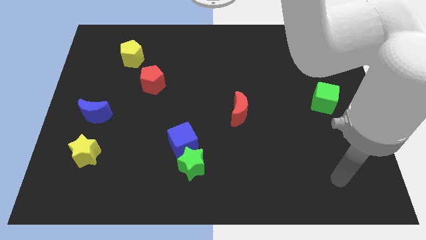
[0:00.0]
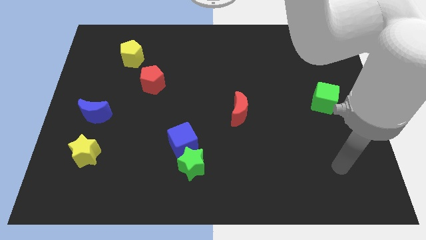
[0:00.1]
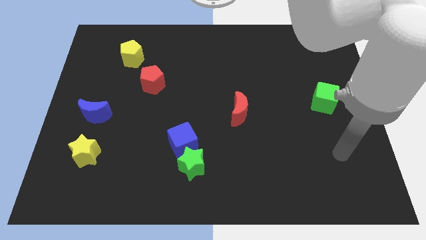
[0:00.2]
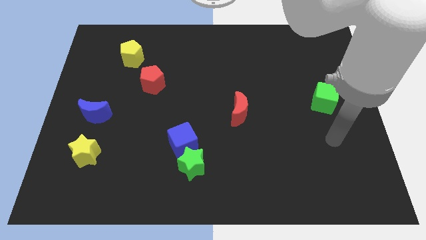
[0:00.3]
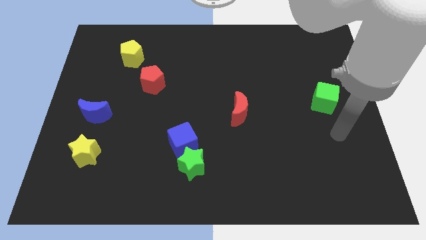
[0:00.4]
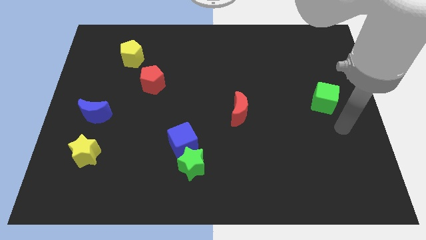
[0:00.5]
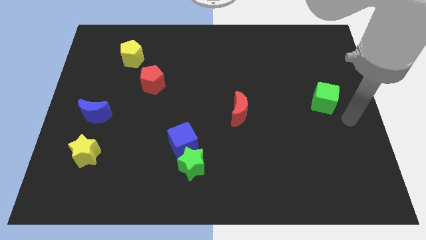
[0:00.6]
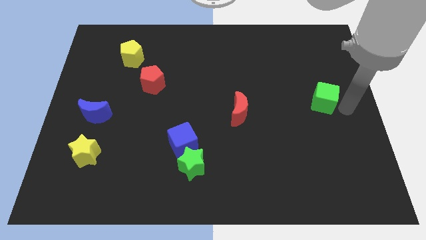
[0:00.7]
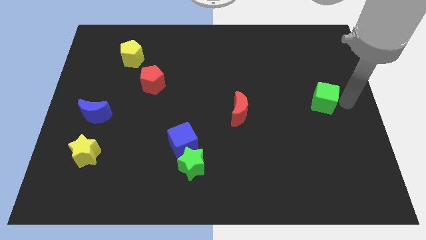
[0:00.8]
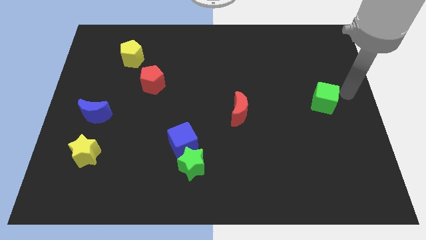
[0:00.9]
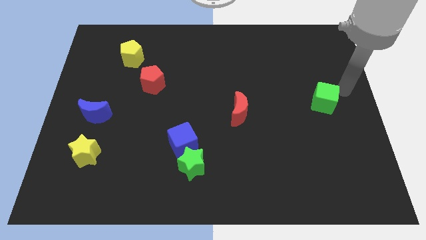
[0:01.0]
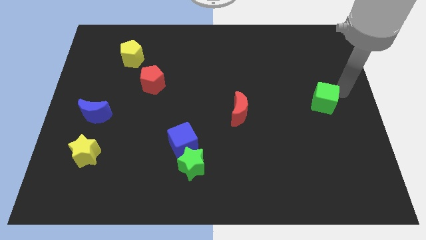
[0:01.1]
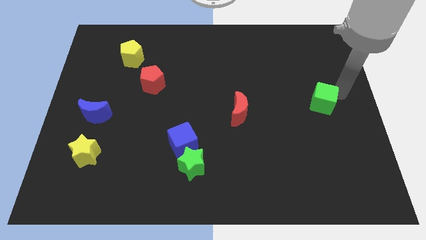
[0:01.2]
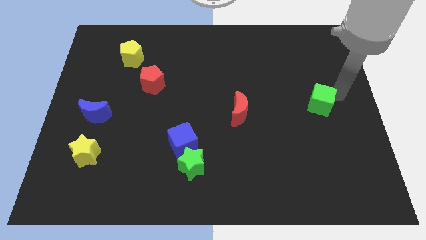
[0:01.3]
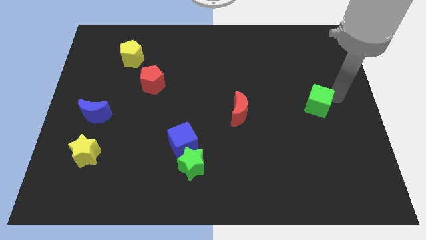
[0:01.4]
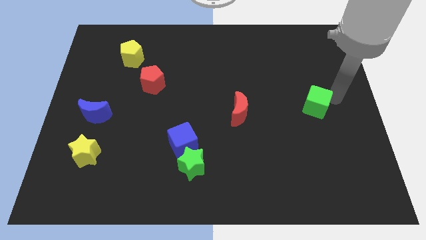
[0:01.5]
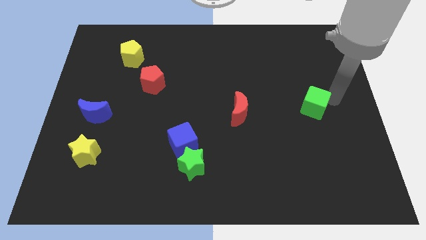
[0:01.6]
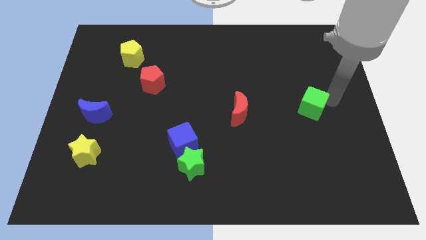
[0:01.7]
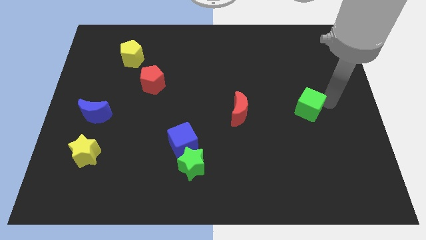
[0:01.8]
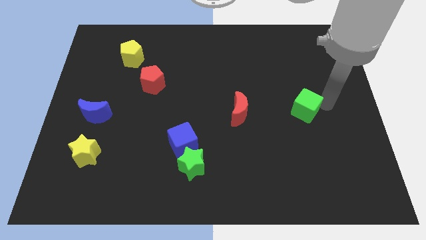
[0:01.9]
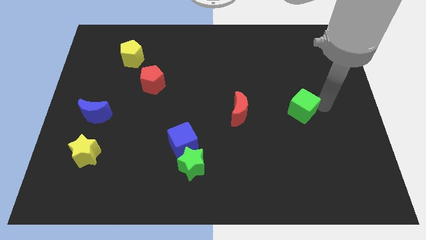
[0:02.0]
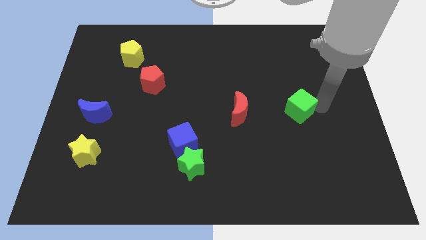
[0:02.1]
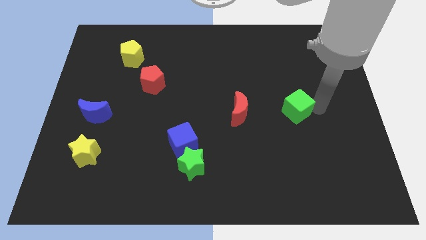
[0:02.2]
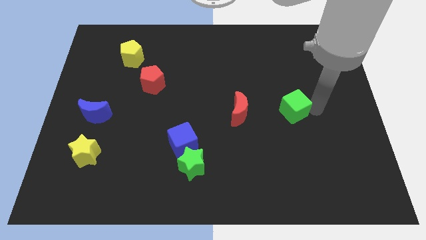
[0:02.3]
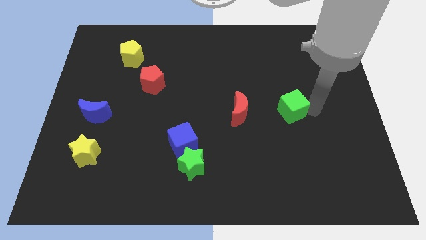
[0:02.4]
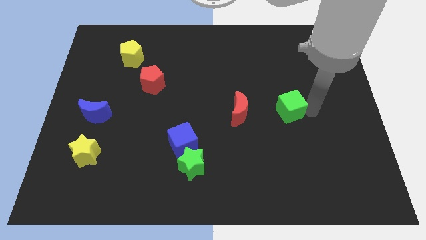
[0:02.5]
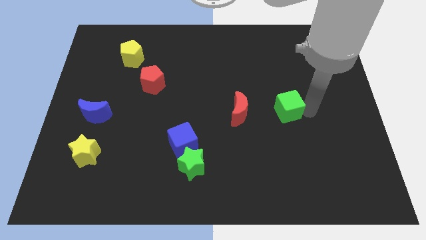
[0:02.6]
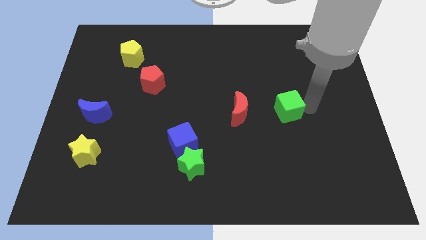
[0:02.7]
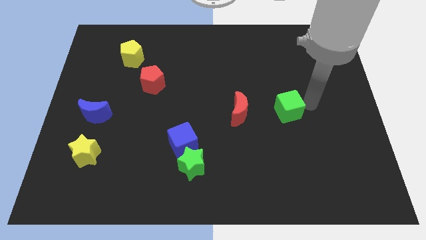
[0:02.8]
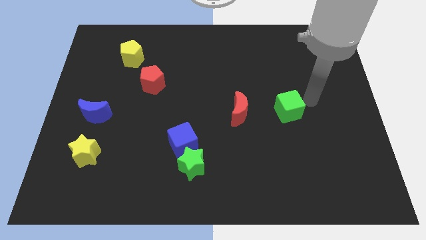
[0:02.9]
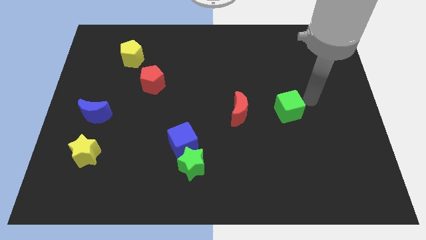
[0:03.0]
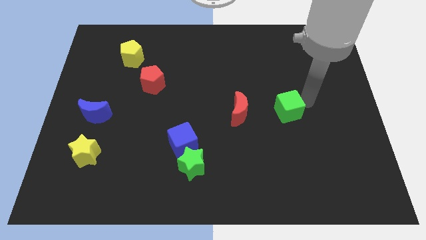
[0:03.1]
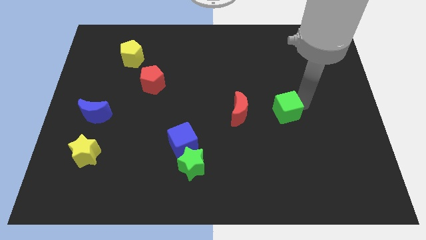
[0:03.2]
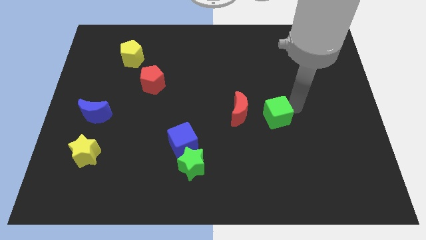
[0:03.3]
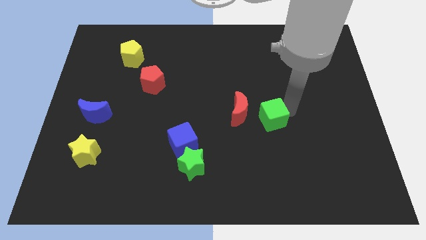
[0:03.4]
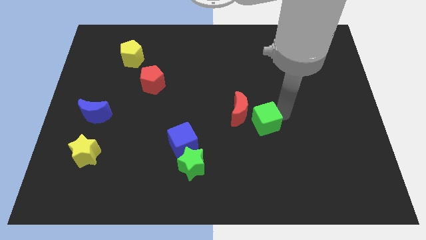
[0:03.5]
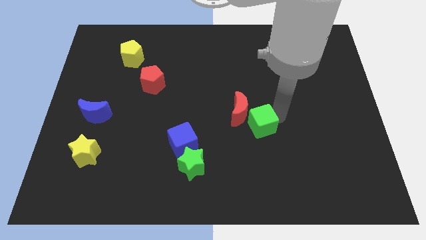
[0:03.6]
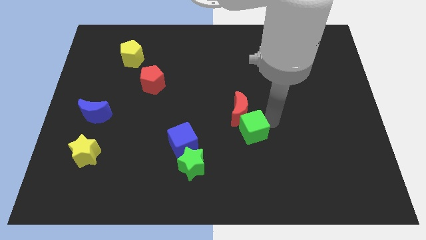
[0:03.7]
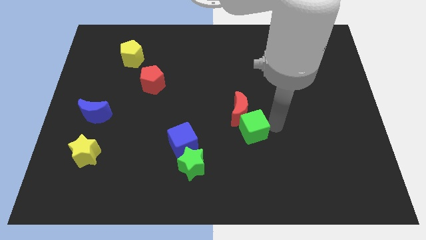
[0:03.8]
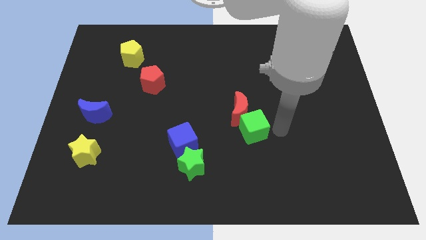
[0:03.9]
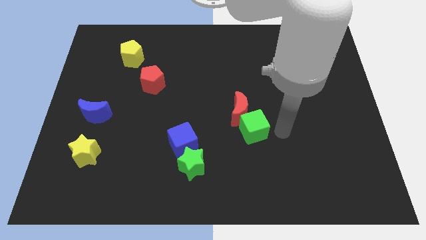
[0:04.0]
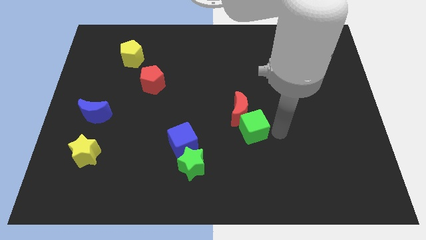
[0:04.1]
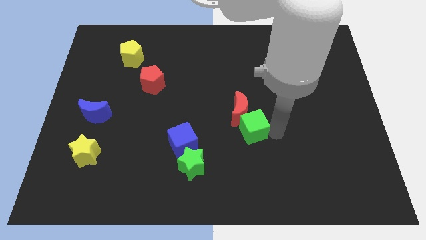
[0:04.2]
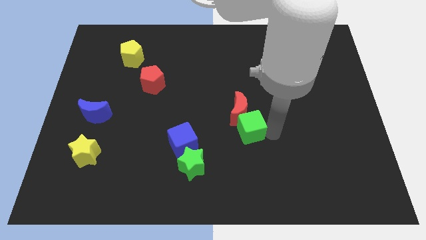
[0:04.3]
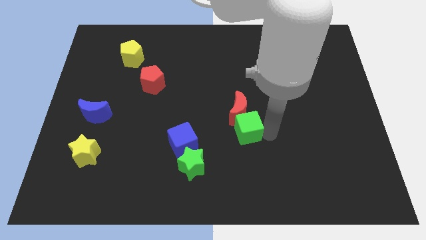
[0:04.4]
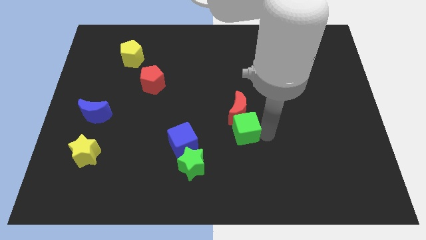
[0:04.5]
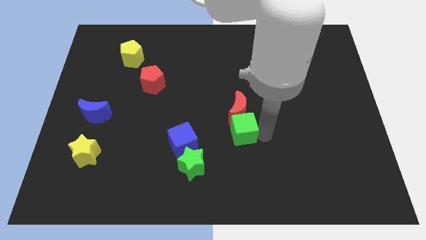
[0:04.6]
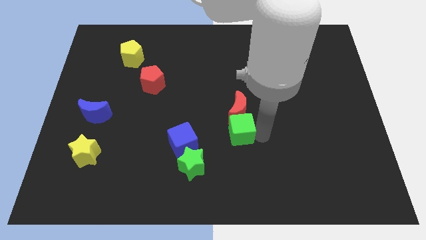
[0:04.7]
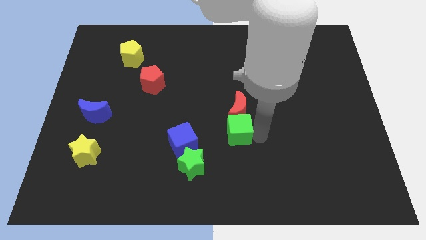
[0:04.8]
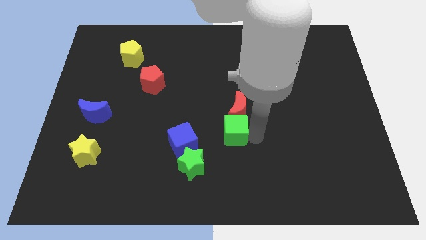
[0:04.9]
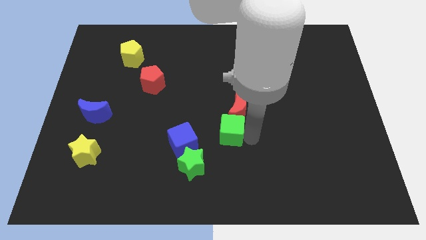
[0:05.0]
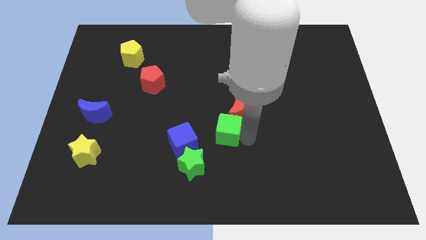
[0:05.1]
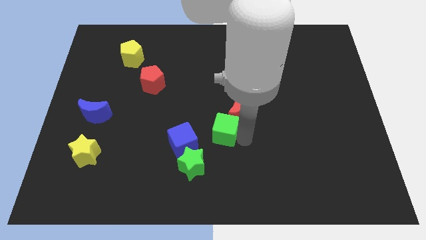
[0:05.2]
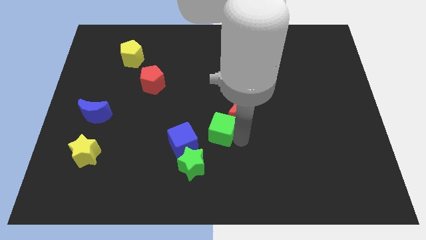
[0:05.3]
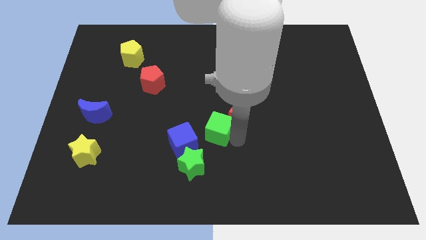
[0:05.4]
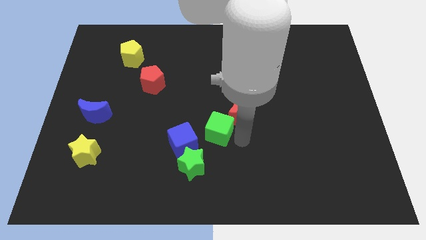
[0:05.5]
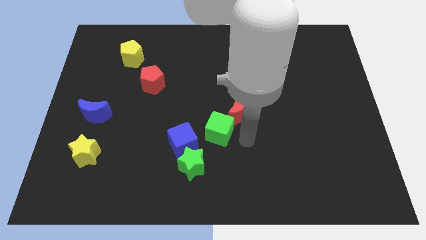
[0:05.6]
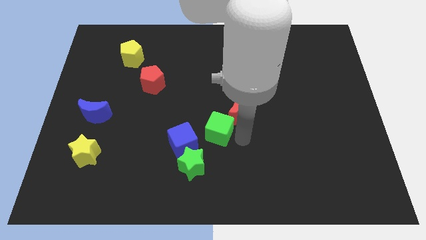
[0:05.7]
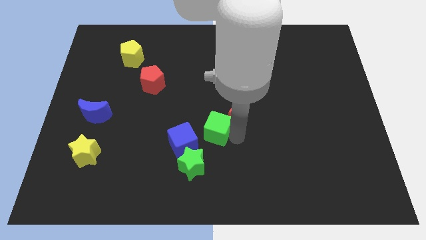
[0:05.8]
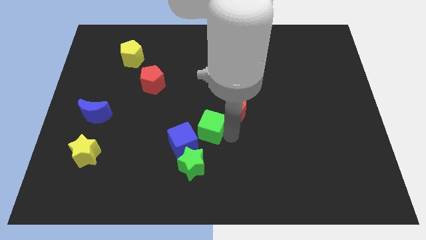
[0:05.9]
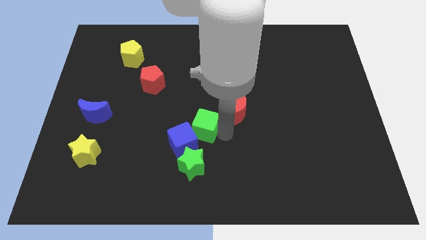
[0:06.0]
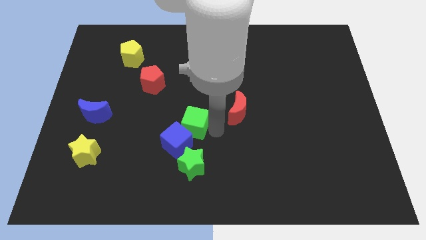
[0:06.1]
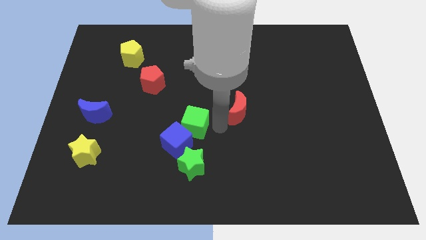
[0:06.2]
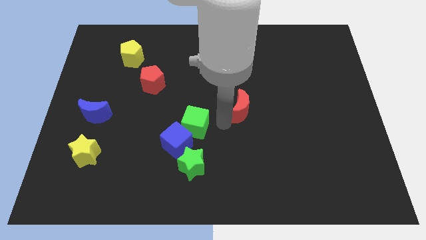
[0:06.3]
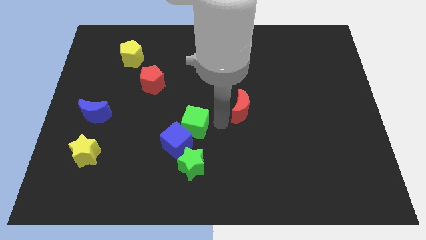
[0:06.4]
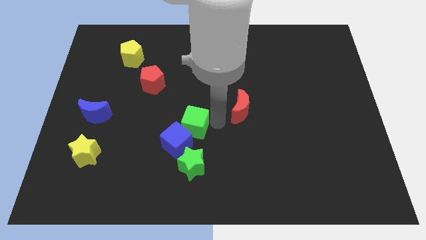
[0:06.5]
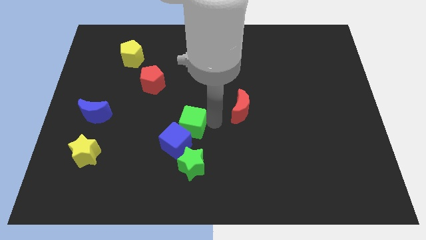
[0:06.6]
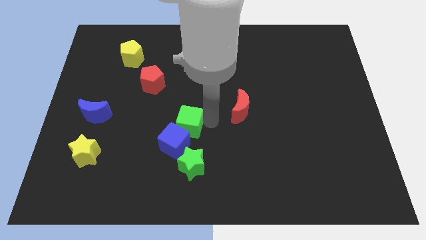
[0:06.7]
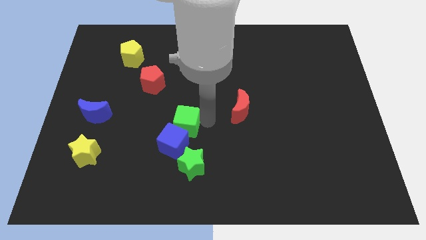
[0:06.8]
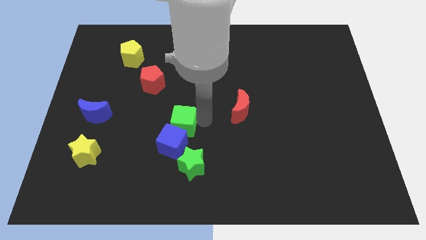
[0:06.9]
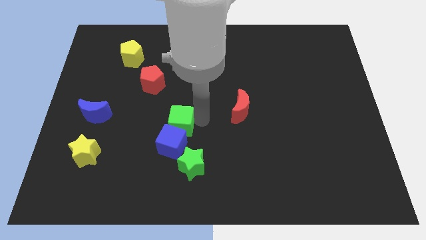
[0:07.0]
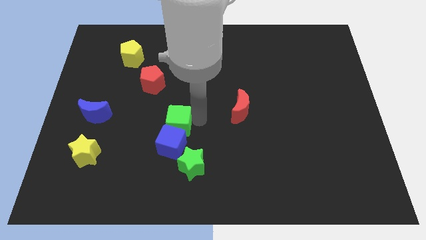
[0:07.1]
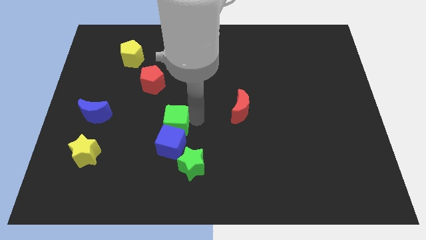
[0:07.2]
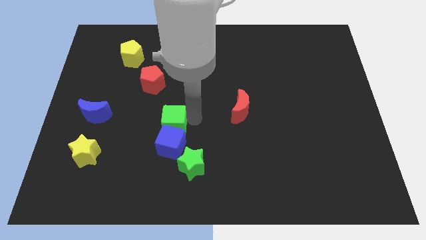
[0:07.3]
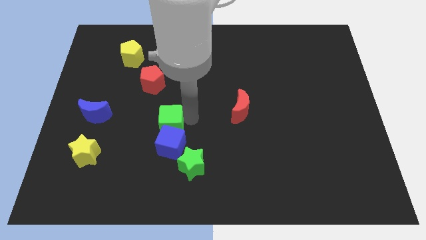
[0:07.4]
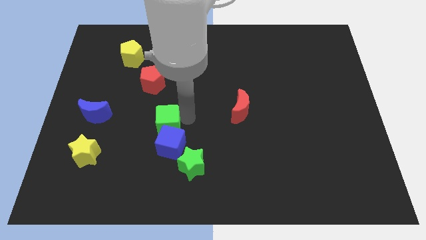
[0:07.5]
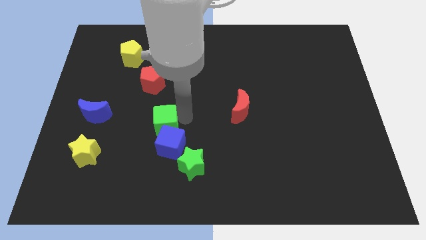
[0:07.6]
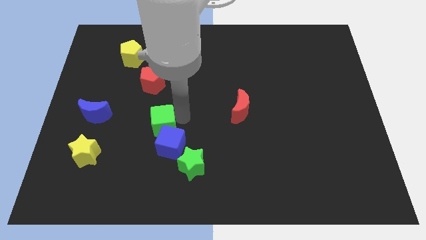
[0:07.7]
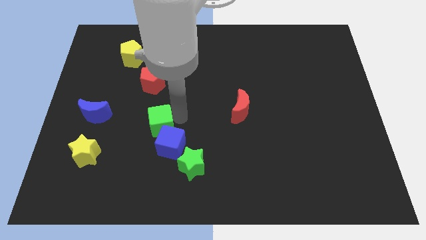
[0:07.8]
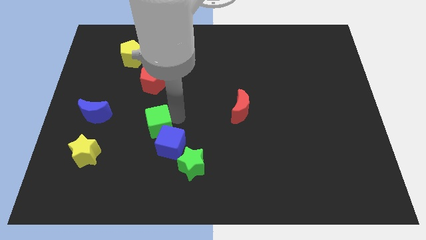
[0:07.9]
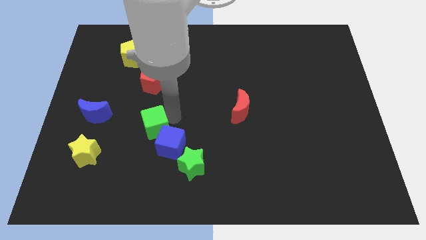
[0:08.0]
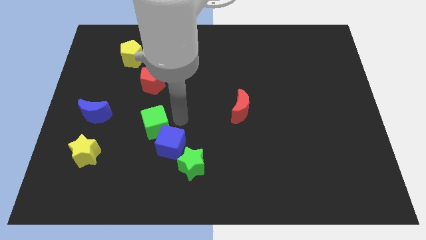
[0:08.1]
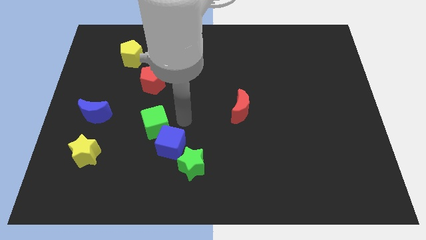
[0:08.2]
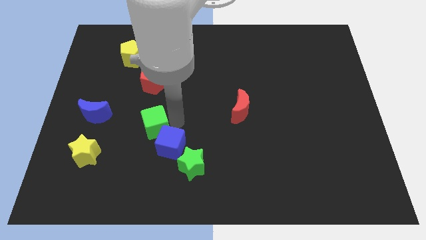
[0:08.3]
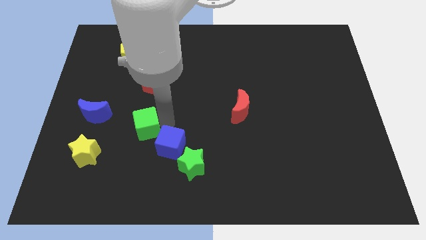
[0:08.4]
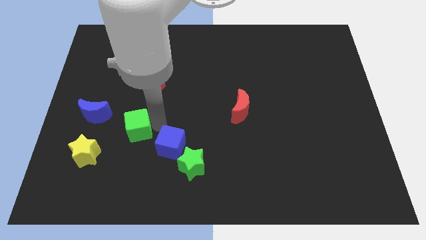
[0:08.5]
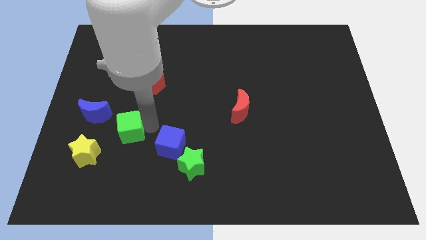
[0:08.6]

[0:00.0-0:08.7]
move the green cube to the bottom right of the blue moon
